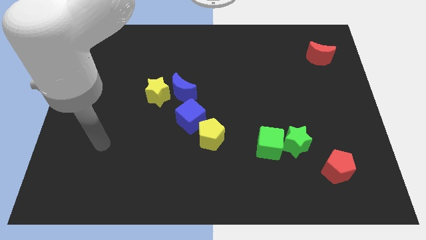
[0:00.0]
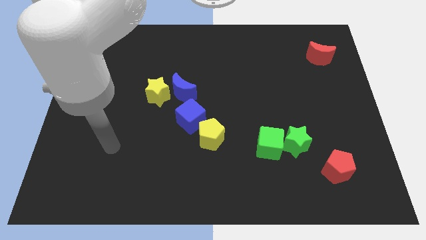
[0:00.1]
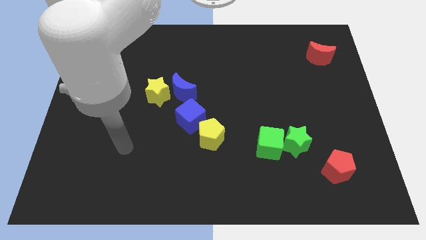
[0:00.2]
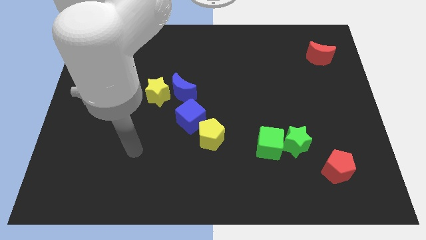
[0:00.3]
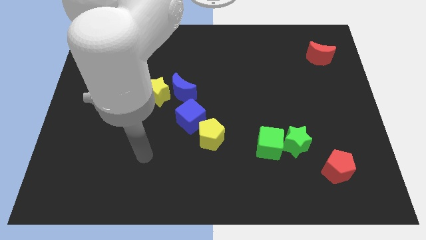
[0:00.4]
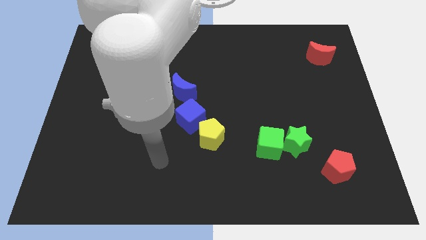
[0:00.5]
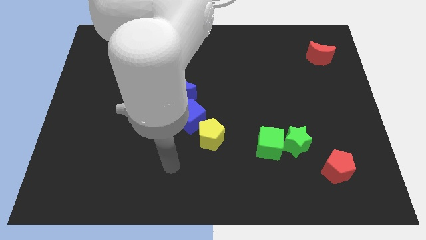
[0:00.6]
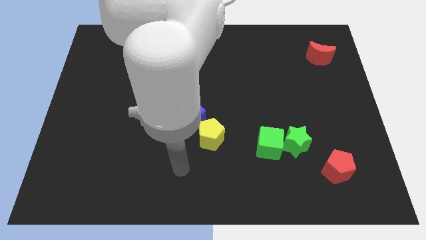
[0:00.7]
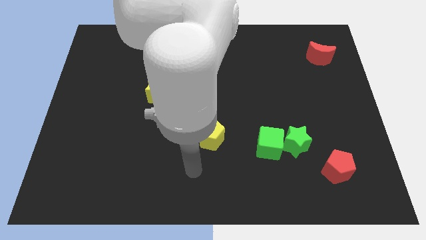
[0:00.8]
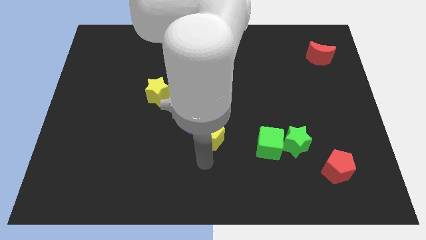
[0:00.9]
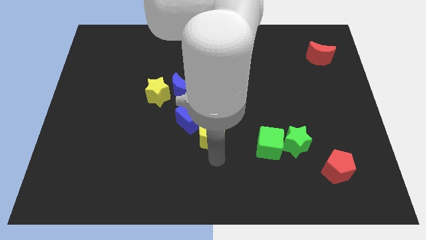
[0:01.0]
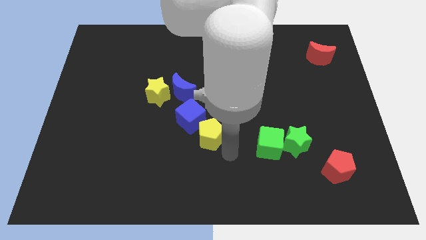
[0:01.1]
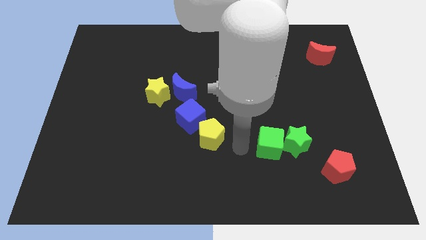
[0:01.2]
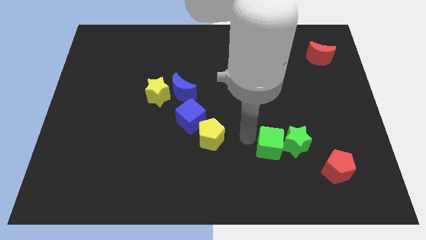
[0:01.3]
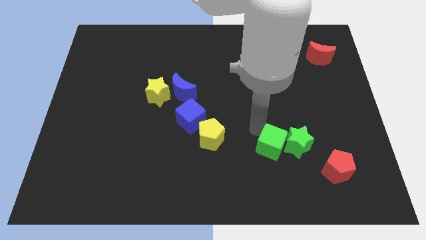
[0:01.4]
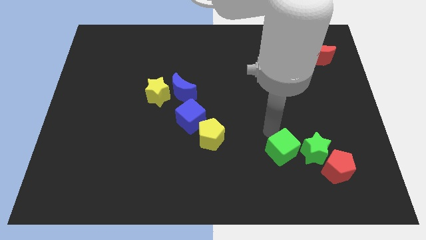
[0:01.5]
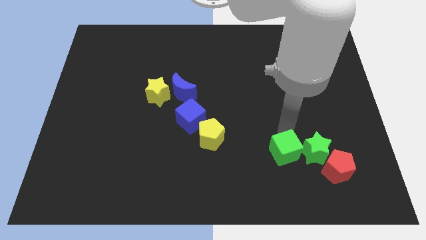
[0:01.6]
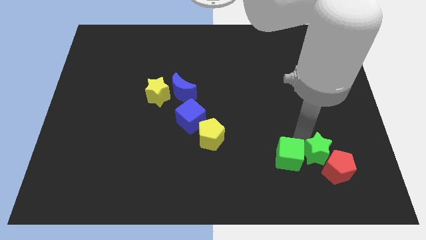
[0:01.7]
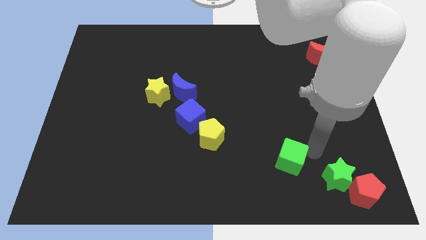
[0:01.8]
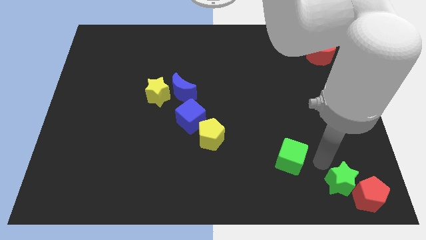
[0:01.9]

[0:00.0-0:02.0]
move the green cube away from the green star

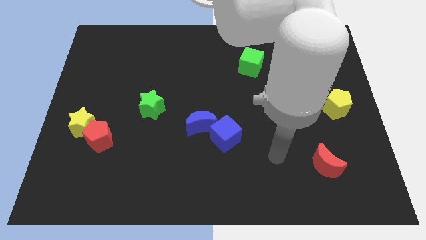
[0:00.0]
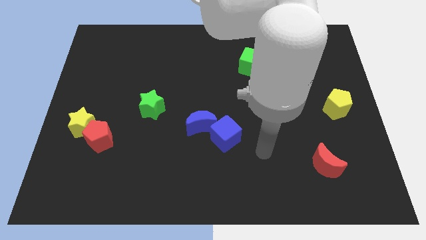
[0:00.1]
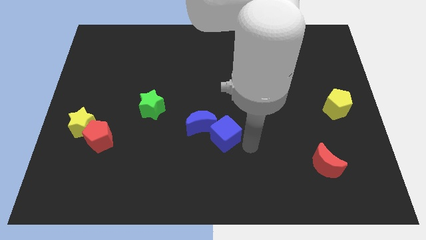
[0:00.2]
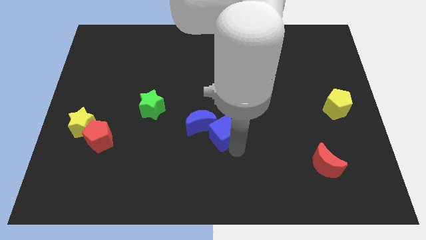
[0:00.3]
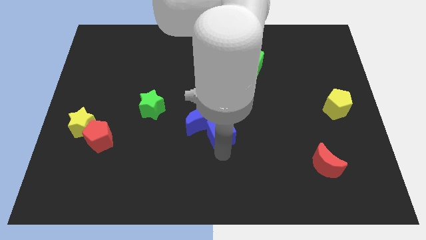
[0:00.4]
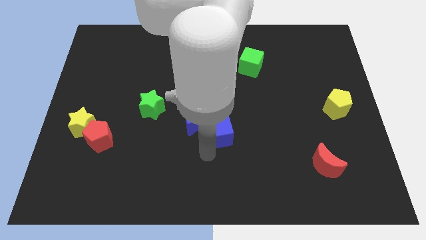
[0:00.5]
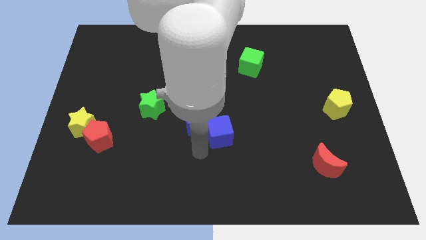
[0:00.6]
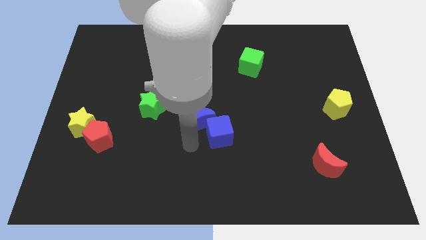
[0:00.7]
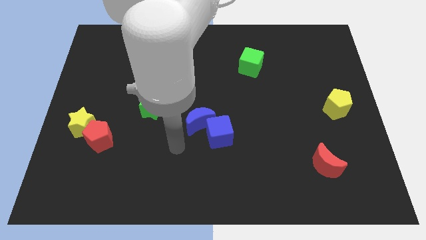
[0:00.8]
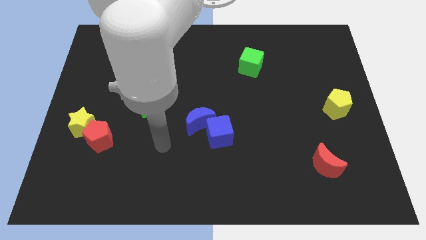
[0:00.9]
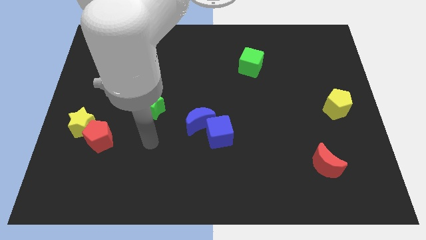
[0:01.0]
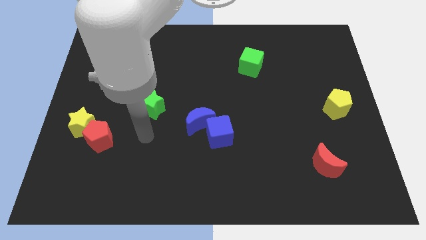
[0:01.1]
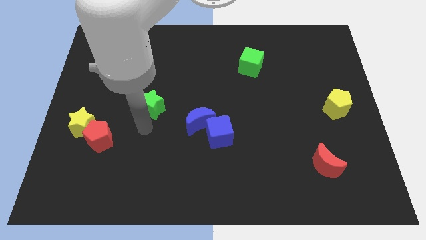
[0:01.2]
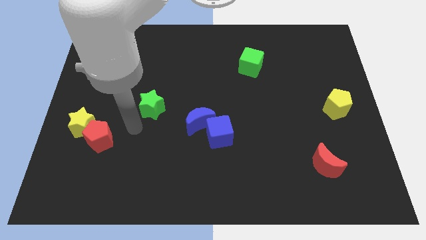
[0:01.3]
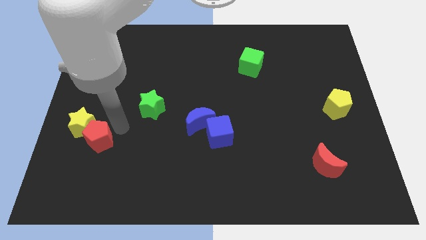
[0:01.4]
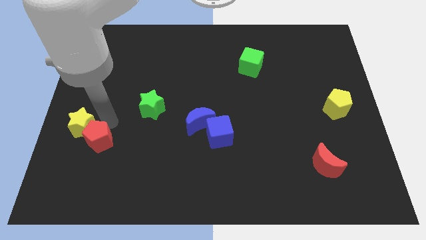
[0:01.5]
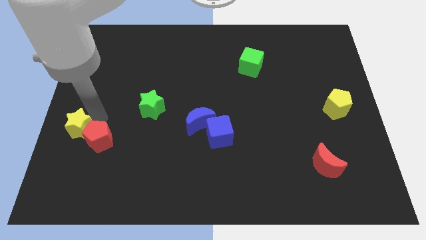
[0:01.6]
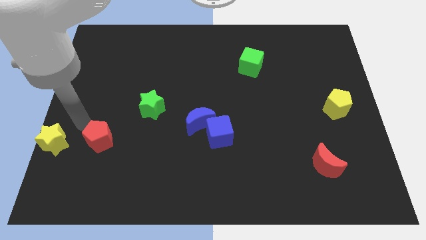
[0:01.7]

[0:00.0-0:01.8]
separate the red pentagon from the yellow star

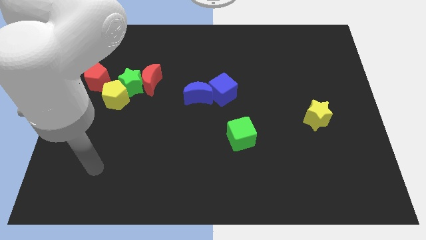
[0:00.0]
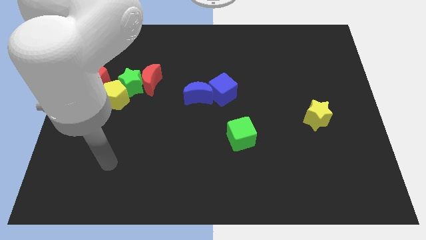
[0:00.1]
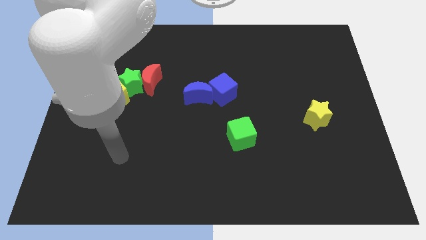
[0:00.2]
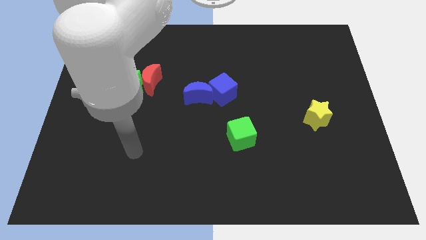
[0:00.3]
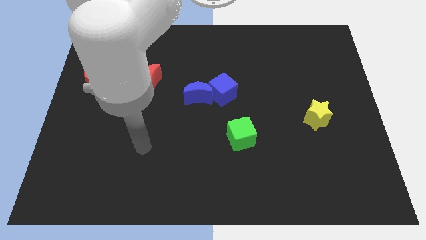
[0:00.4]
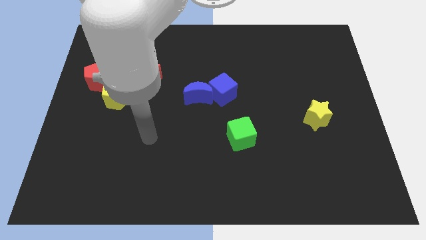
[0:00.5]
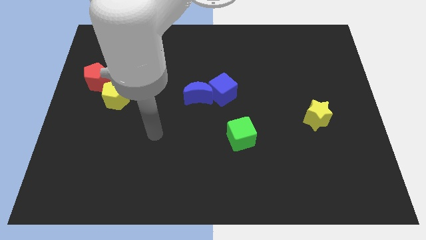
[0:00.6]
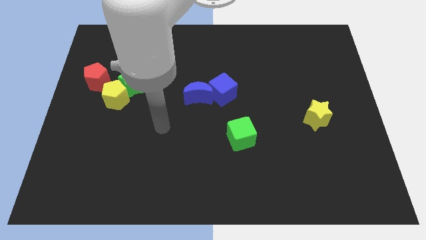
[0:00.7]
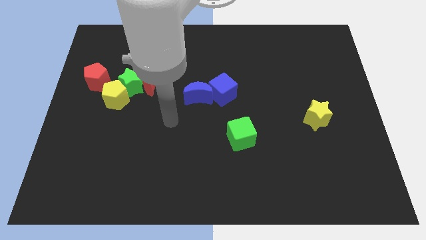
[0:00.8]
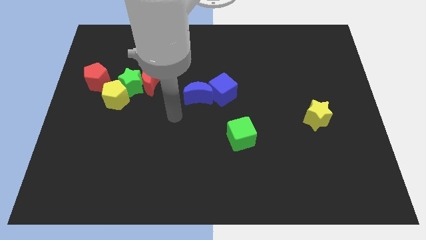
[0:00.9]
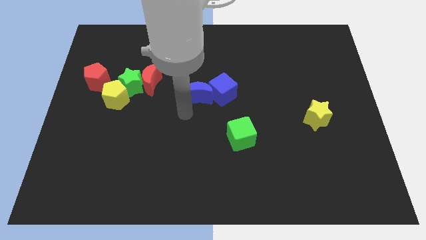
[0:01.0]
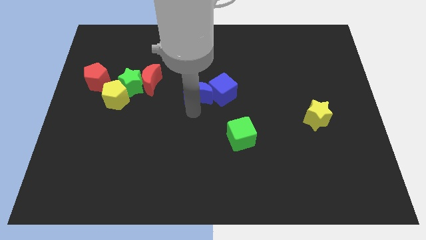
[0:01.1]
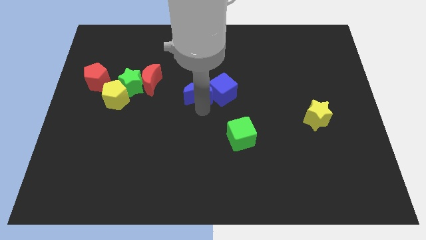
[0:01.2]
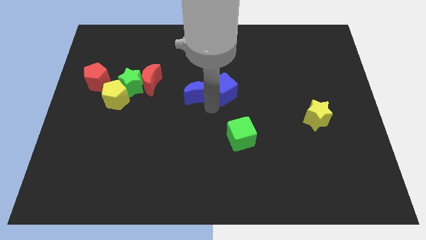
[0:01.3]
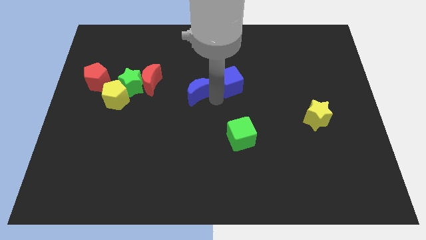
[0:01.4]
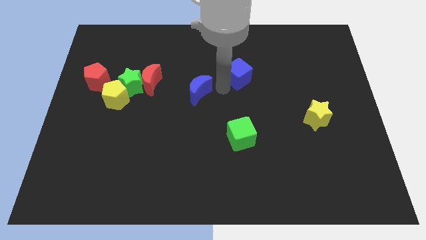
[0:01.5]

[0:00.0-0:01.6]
separate the blue moon from the blue cube

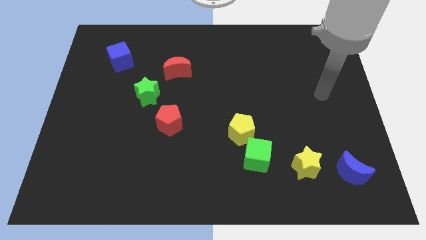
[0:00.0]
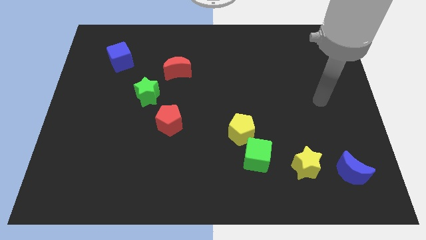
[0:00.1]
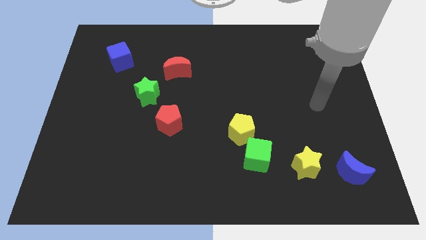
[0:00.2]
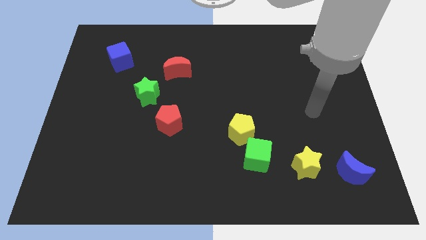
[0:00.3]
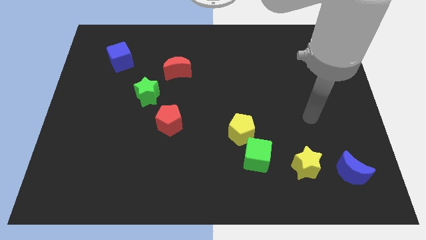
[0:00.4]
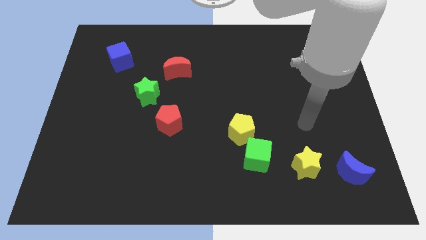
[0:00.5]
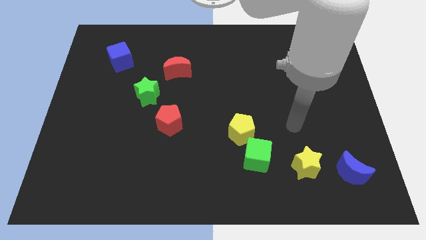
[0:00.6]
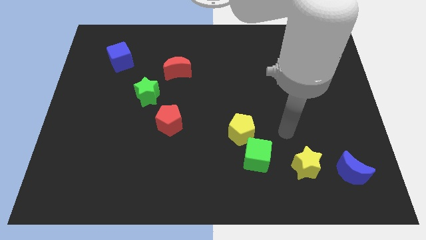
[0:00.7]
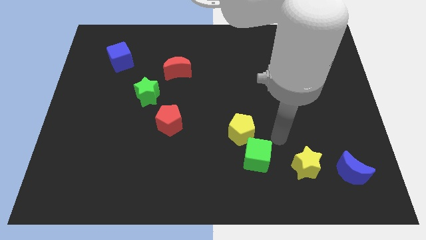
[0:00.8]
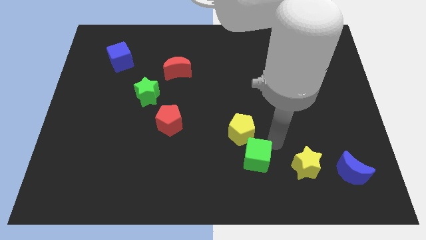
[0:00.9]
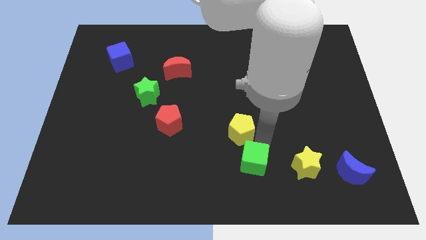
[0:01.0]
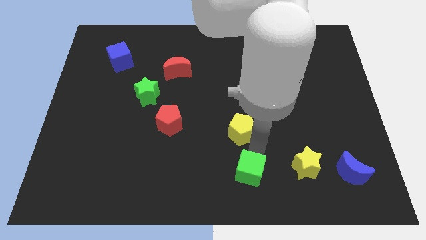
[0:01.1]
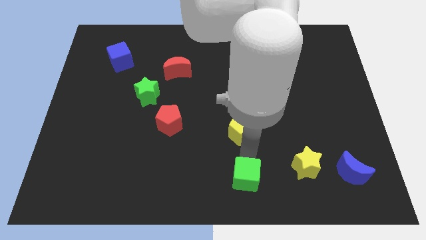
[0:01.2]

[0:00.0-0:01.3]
move the yellow pentagon away from the green cube

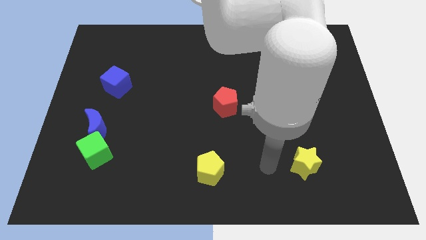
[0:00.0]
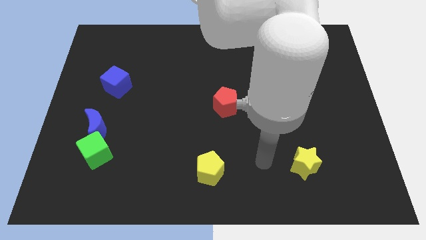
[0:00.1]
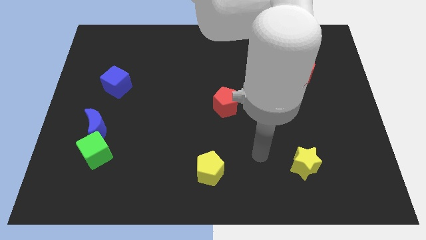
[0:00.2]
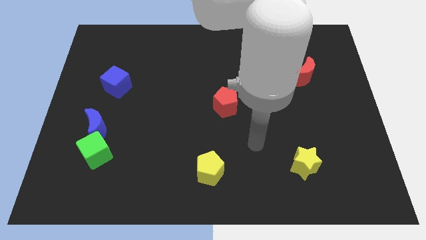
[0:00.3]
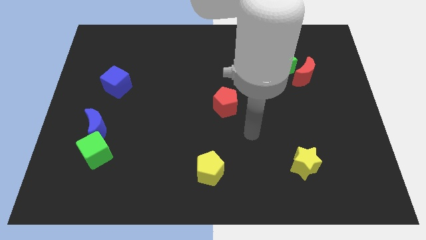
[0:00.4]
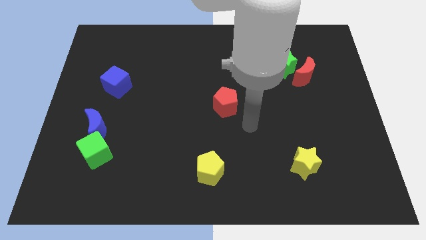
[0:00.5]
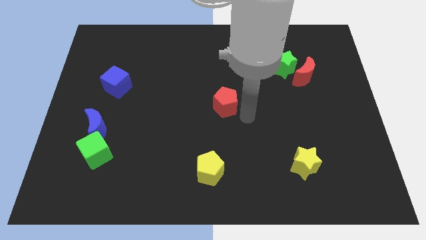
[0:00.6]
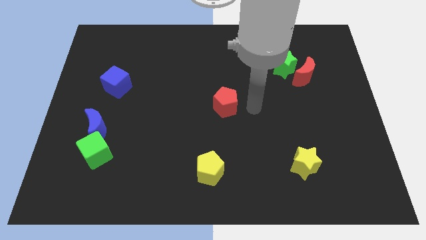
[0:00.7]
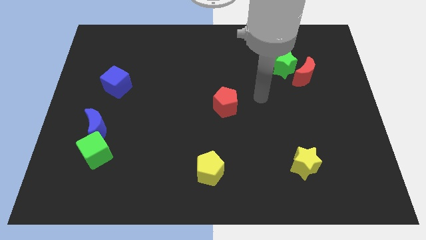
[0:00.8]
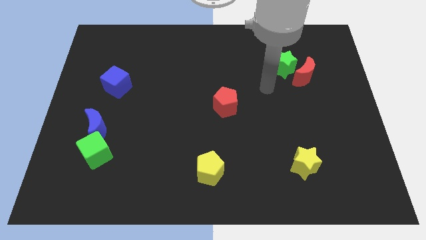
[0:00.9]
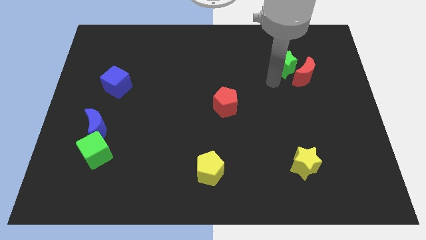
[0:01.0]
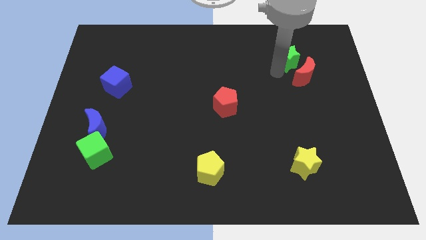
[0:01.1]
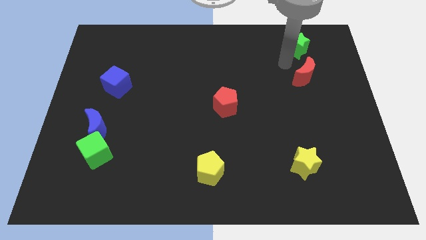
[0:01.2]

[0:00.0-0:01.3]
move the red moon away from the green star

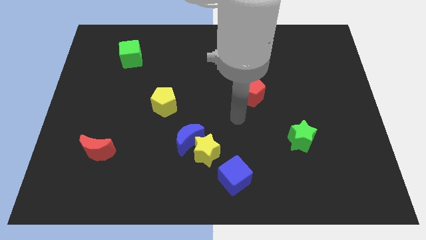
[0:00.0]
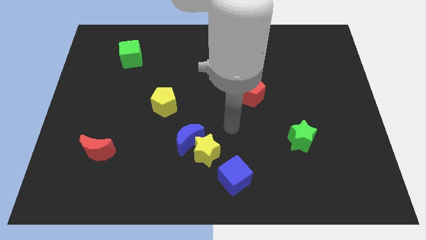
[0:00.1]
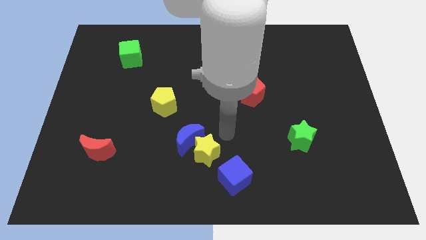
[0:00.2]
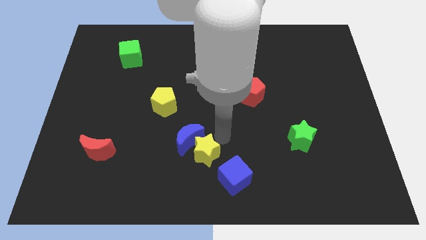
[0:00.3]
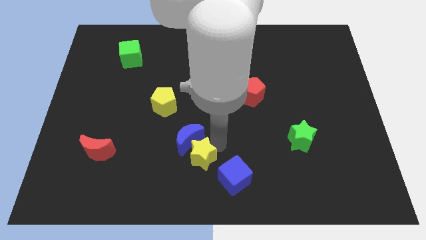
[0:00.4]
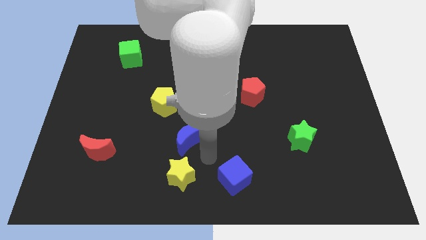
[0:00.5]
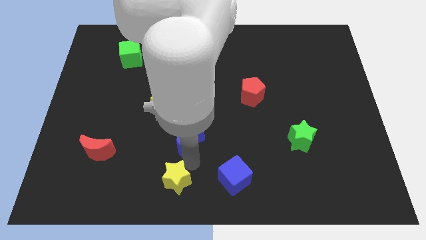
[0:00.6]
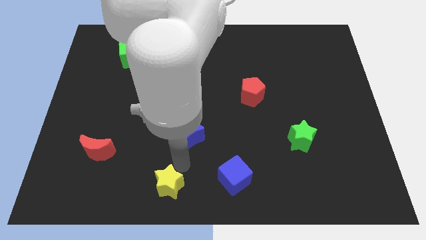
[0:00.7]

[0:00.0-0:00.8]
pull the blue moon apart from the yellow star

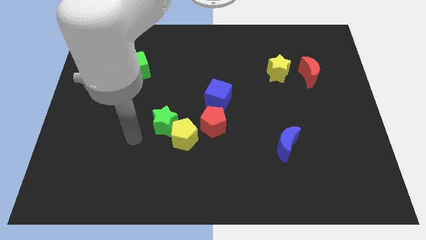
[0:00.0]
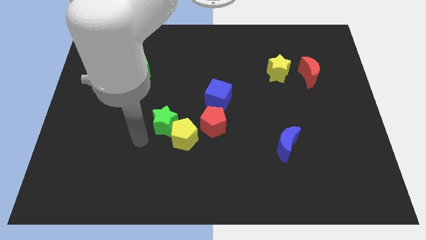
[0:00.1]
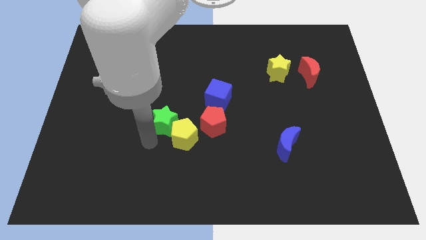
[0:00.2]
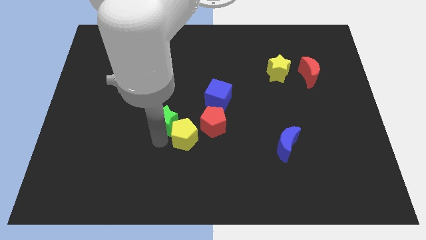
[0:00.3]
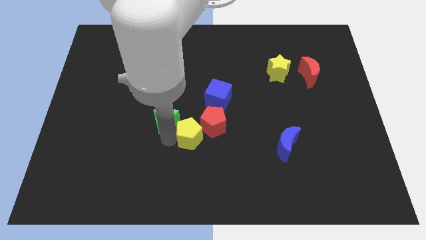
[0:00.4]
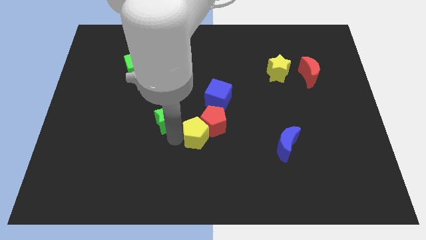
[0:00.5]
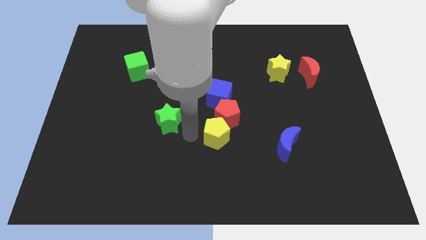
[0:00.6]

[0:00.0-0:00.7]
move the green star away from the yellow pentagon
